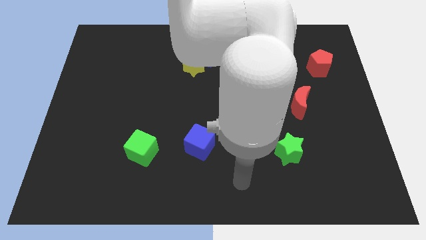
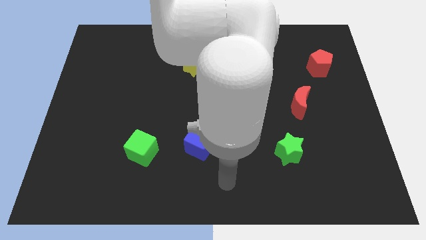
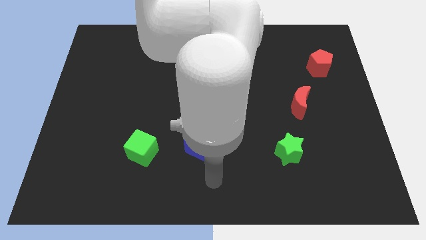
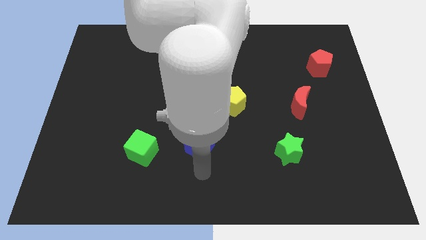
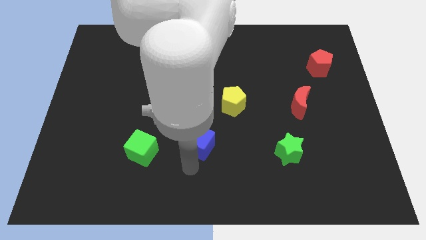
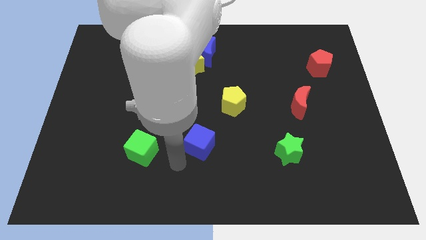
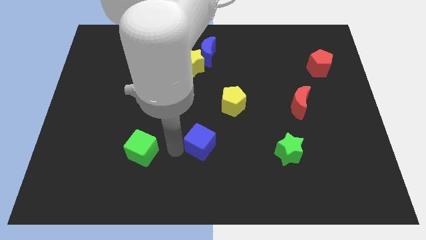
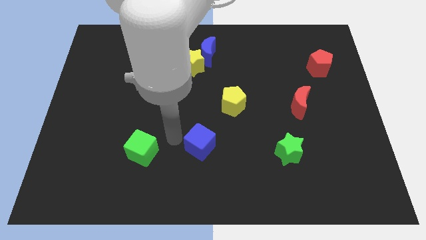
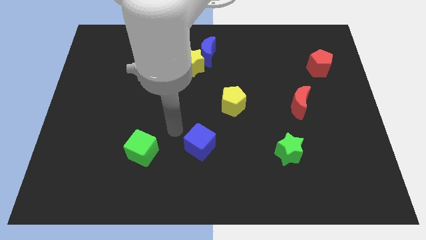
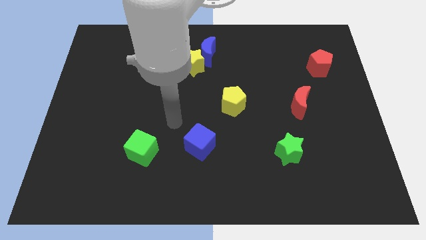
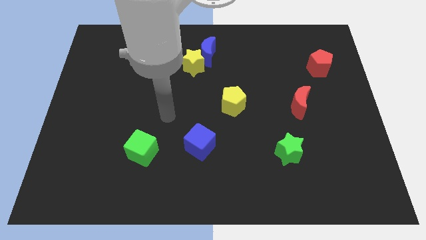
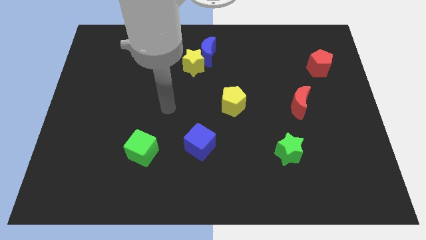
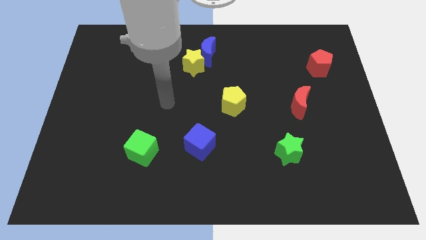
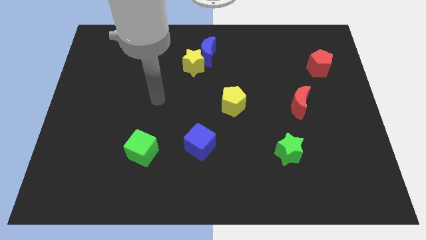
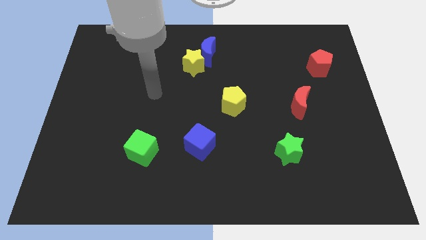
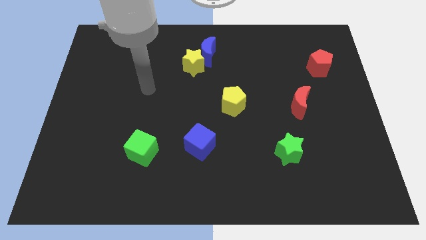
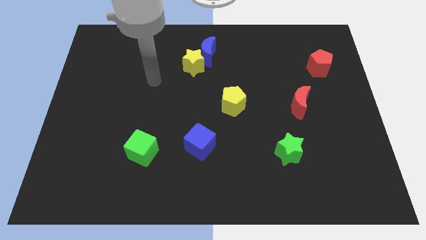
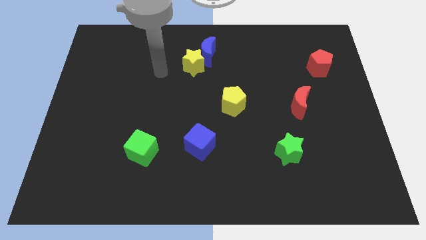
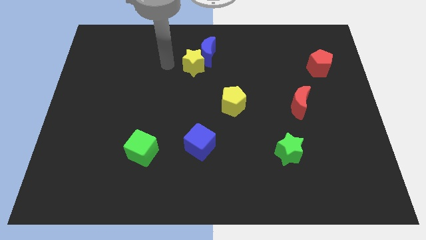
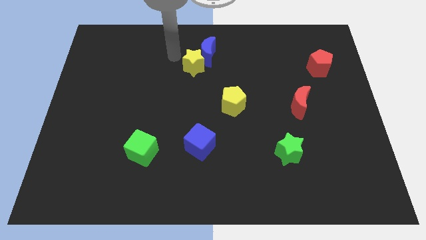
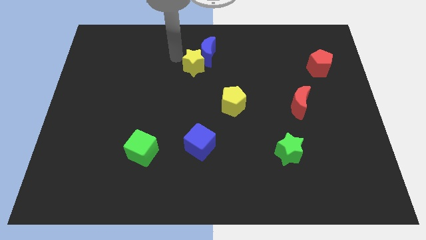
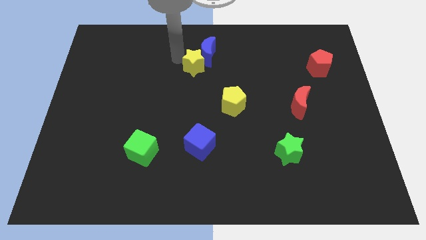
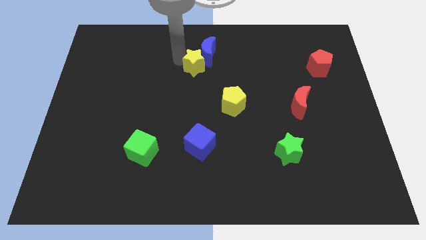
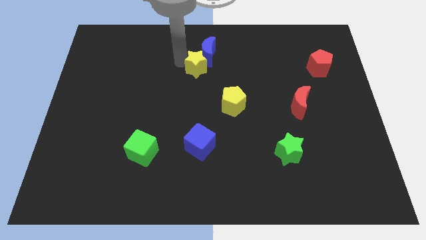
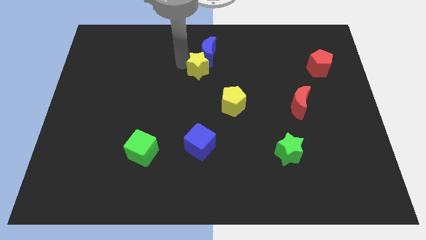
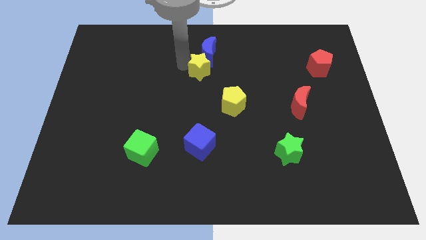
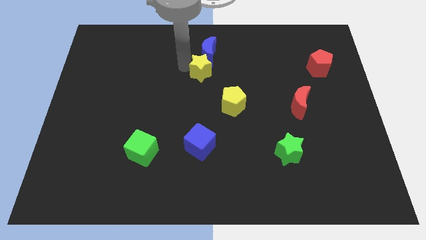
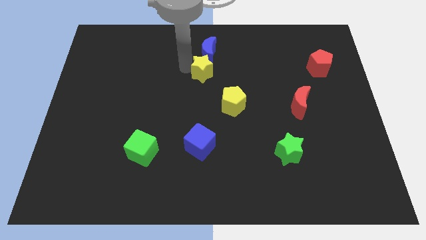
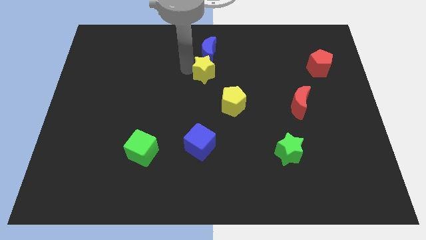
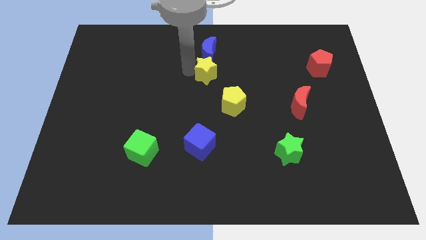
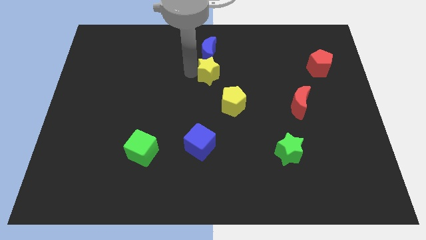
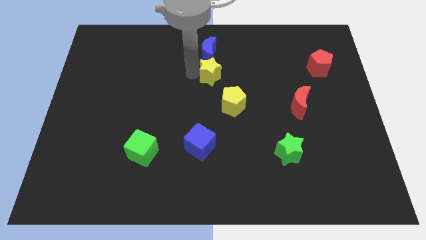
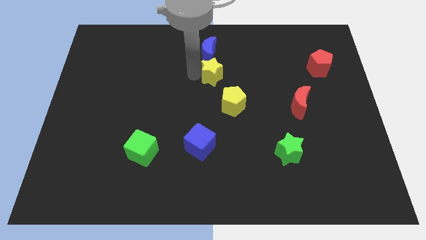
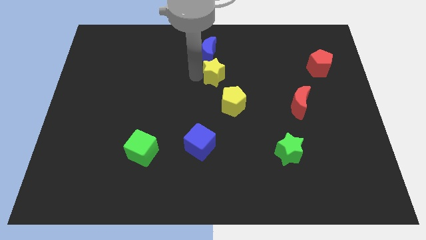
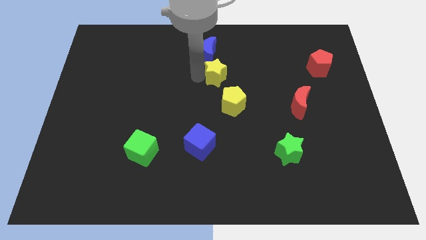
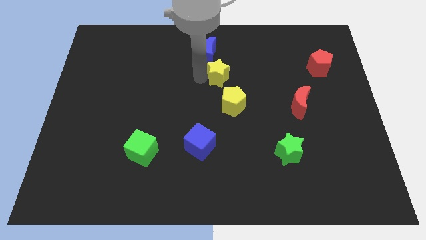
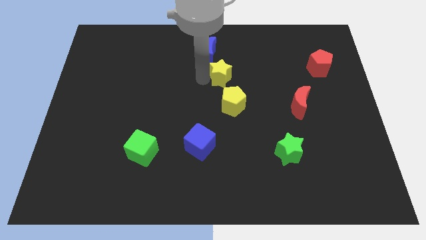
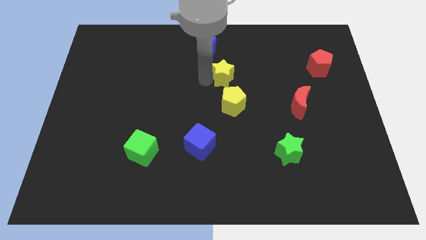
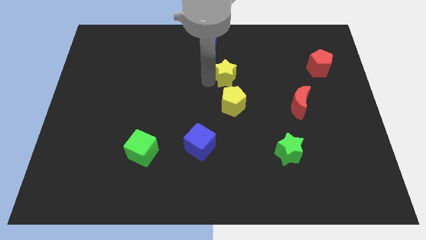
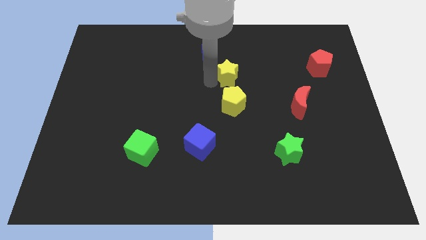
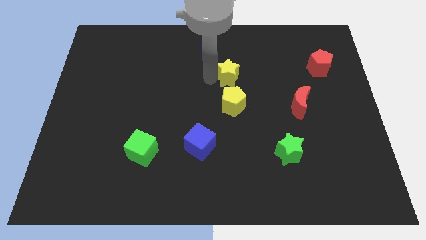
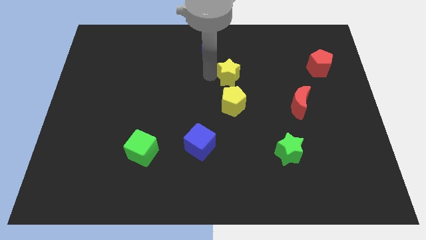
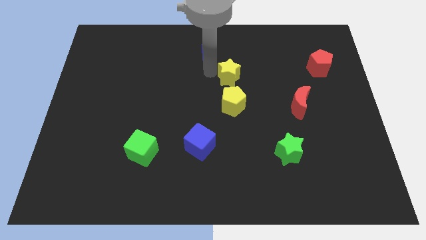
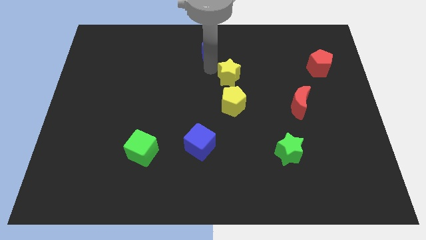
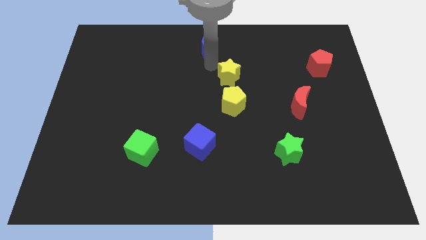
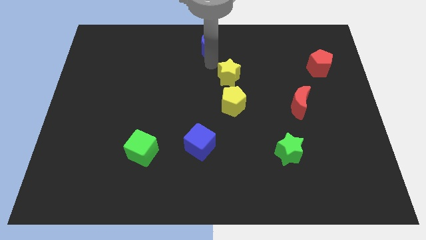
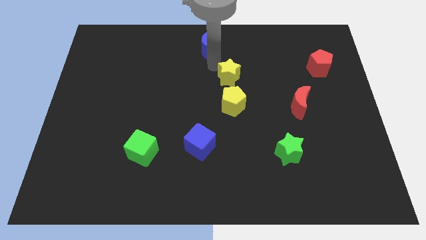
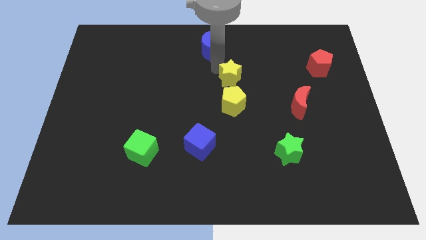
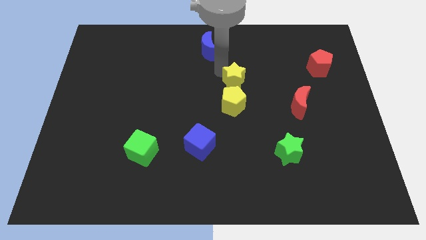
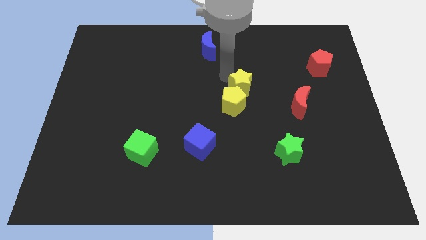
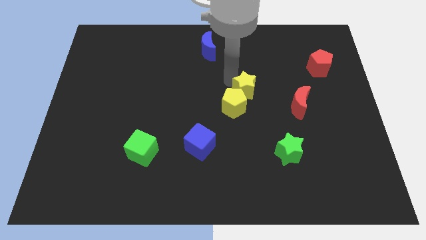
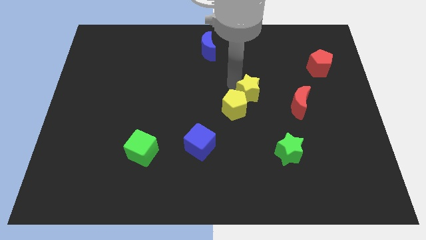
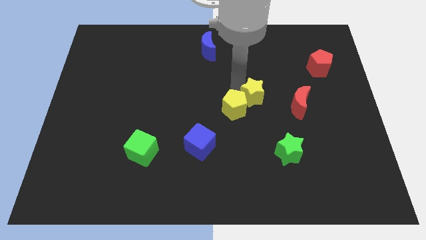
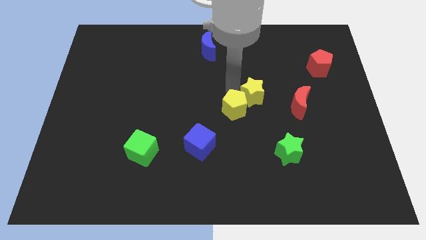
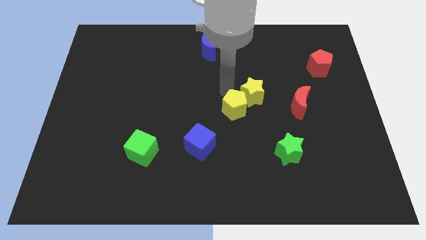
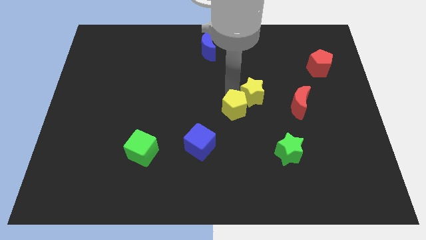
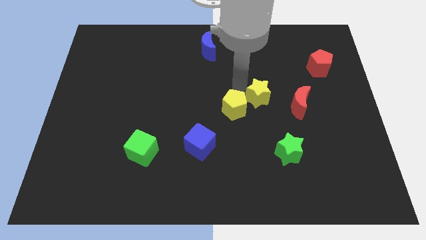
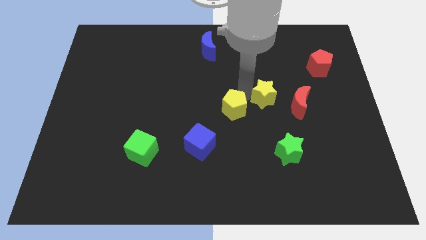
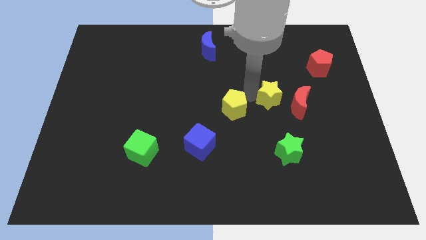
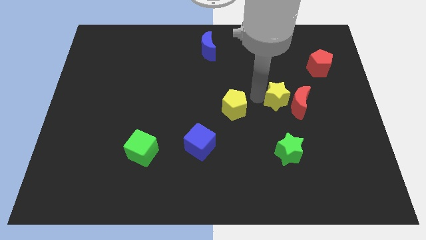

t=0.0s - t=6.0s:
slide the yellow star next to the red moon

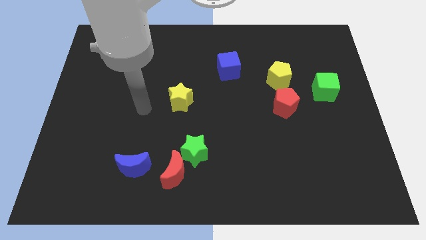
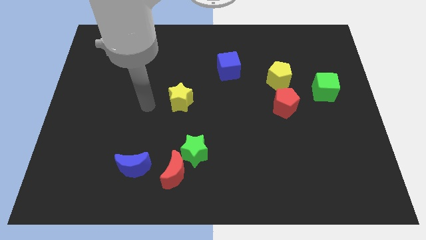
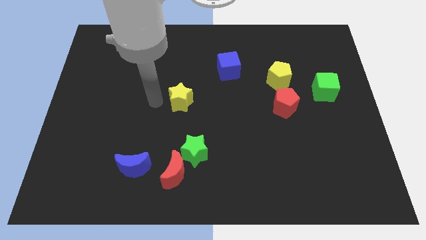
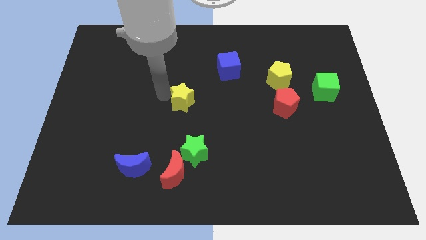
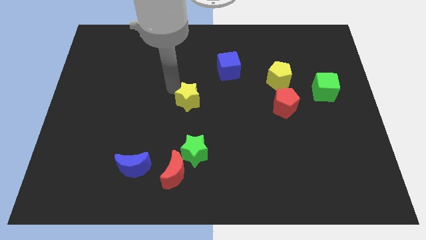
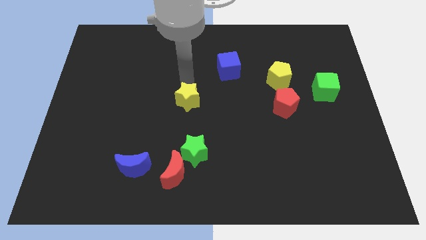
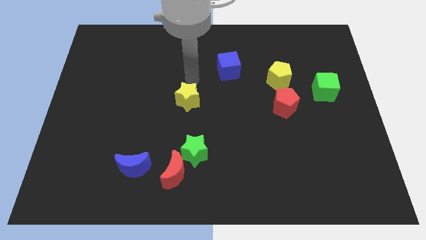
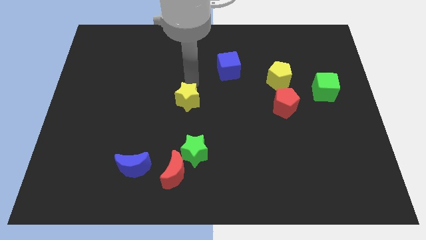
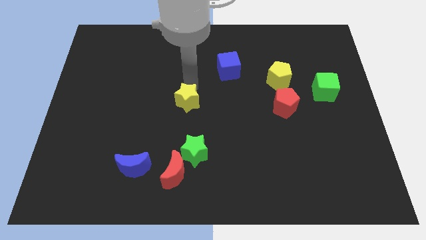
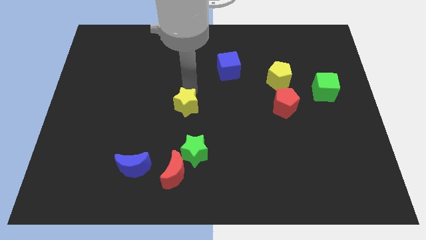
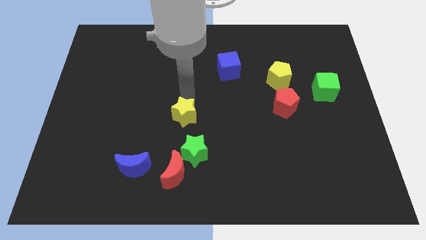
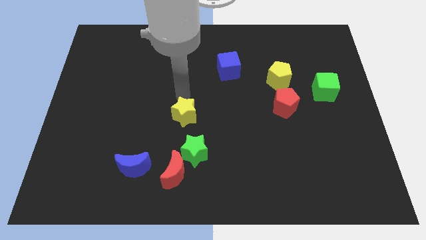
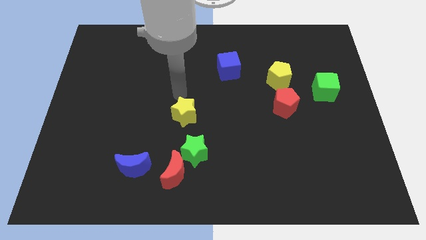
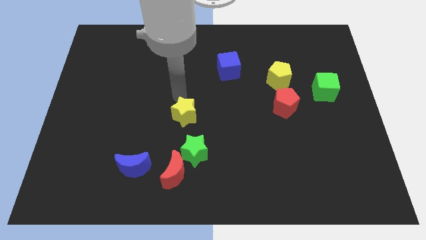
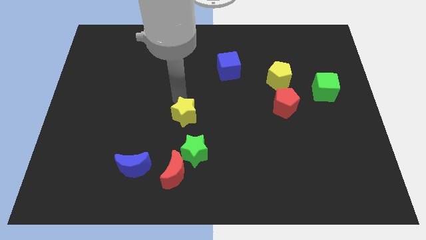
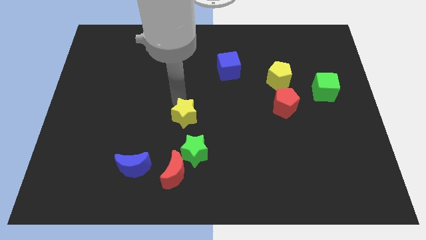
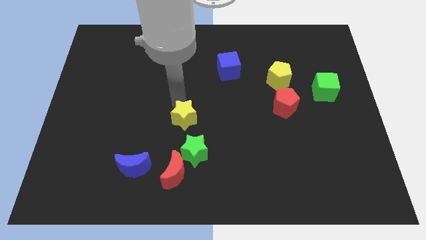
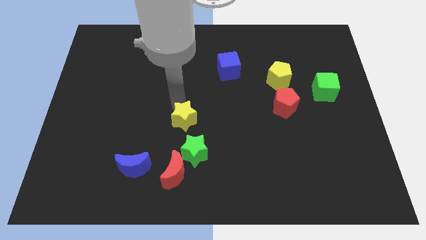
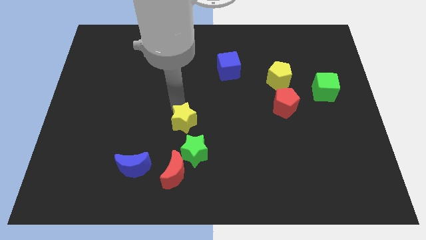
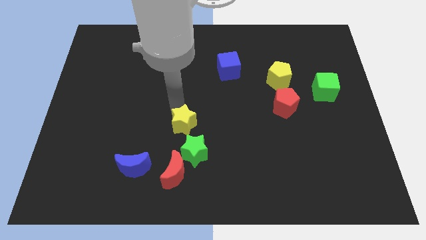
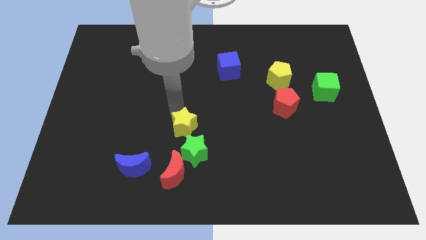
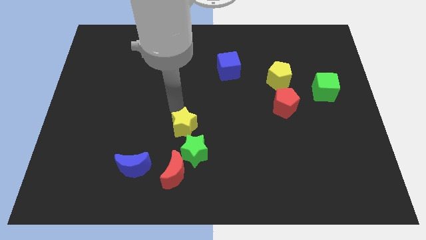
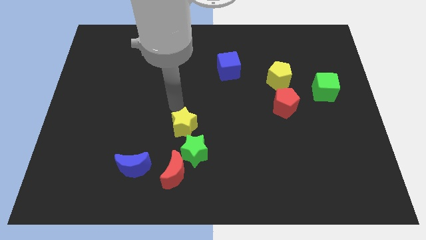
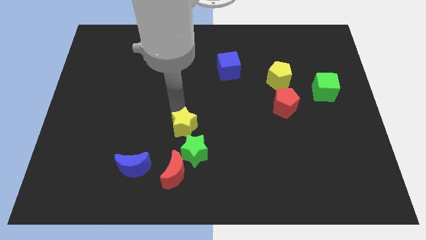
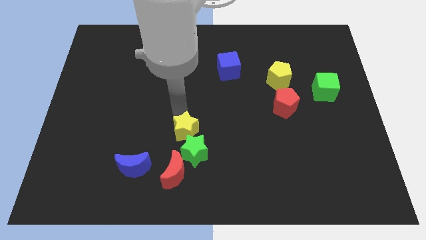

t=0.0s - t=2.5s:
slide the yellow star close to the green star
